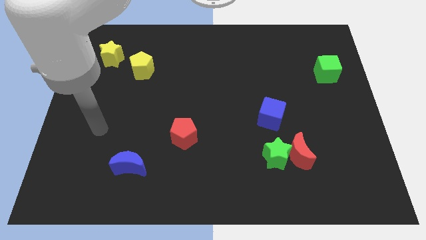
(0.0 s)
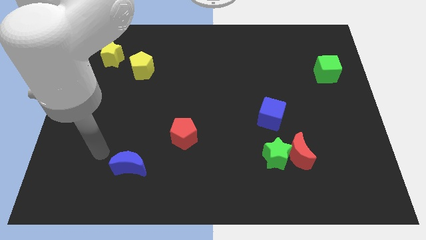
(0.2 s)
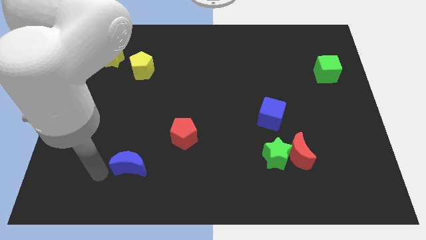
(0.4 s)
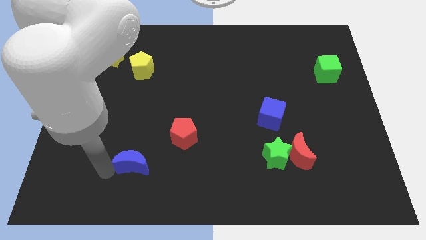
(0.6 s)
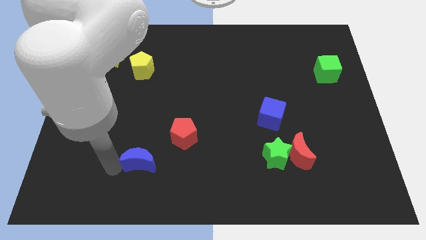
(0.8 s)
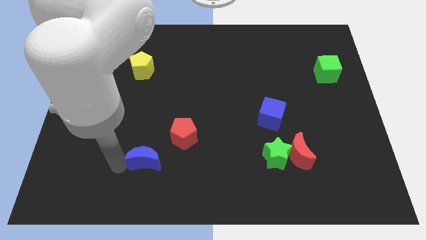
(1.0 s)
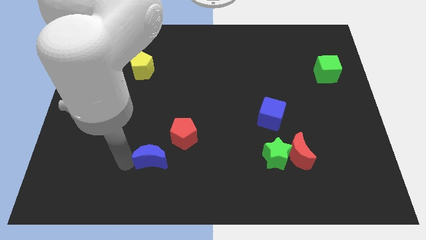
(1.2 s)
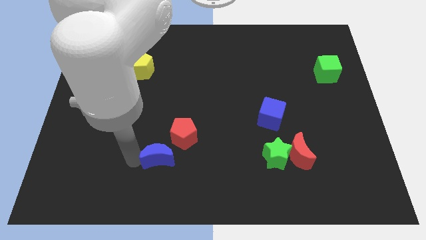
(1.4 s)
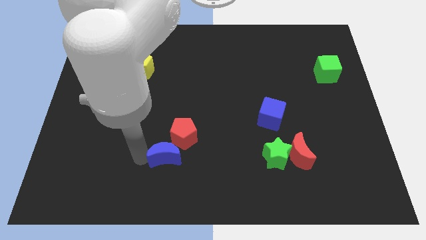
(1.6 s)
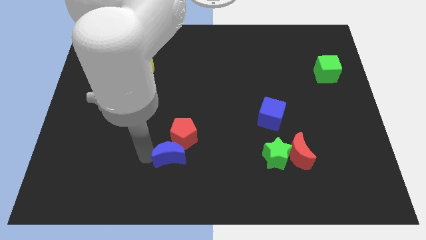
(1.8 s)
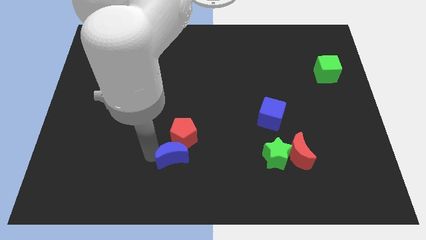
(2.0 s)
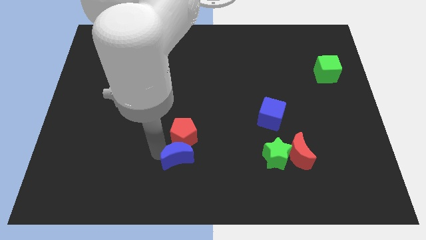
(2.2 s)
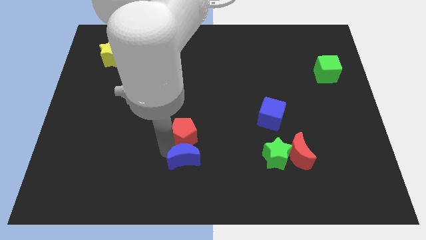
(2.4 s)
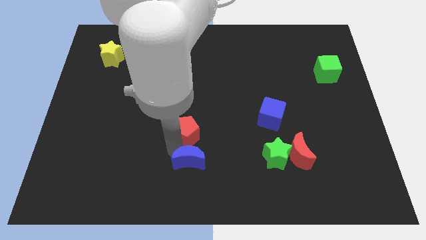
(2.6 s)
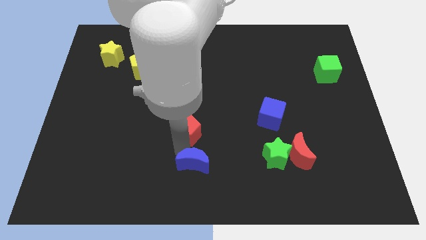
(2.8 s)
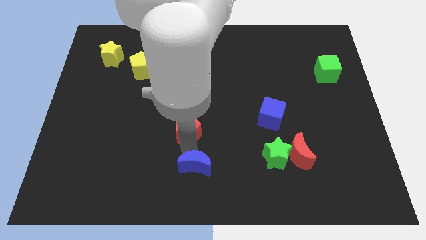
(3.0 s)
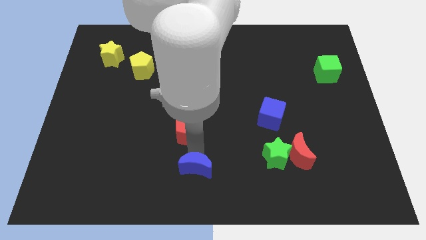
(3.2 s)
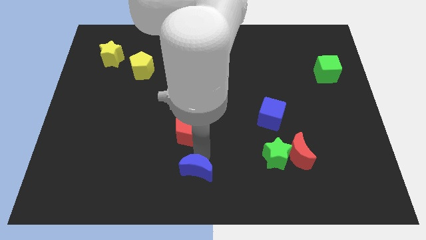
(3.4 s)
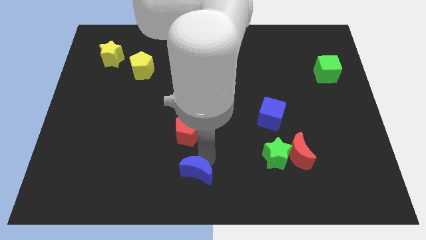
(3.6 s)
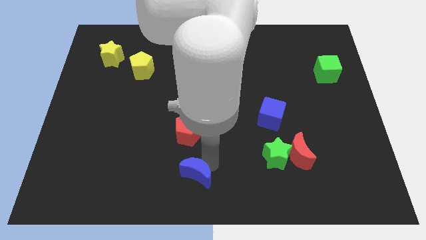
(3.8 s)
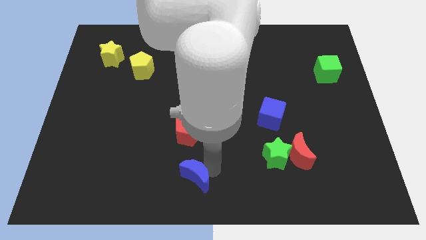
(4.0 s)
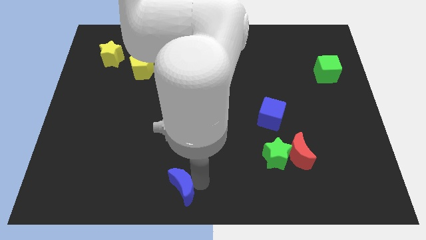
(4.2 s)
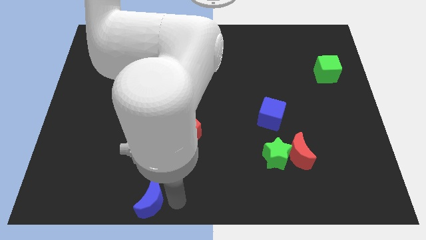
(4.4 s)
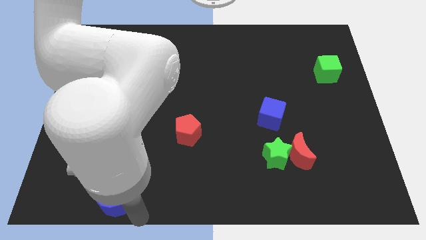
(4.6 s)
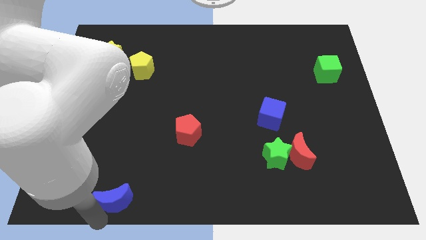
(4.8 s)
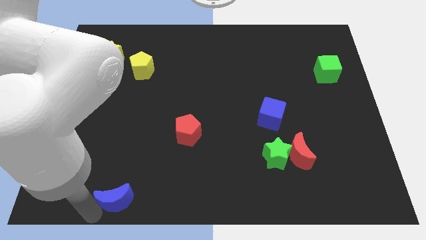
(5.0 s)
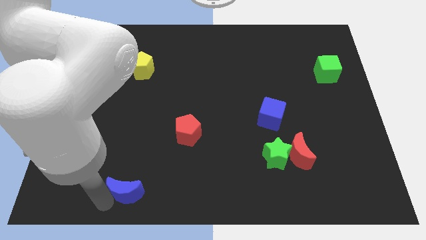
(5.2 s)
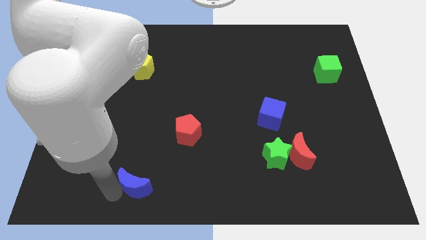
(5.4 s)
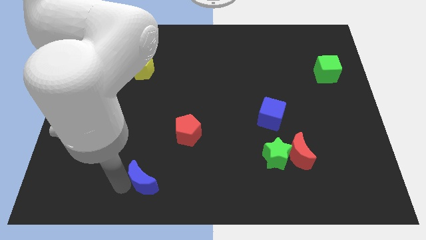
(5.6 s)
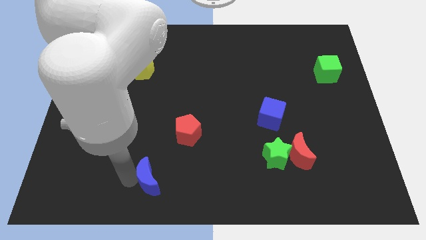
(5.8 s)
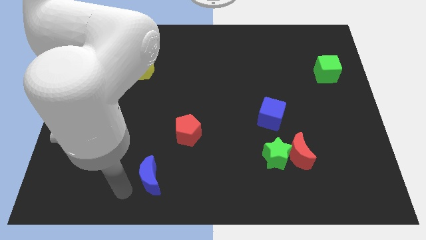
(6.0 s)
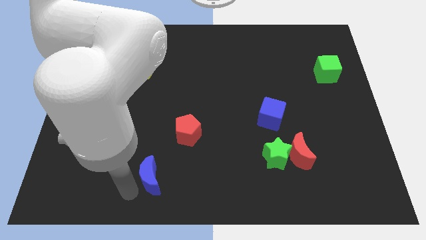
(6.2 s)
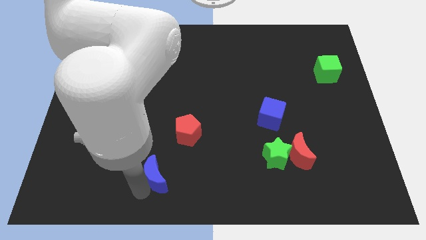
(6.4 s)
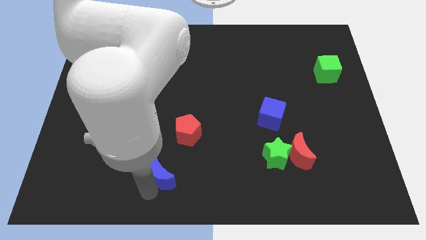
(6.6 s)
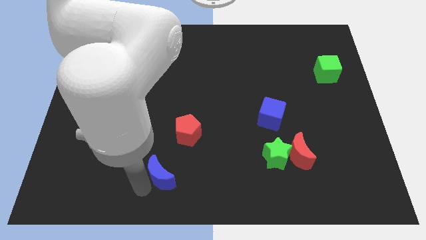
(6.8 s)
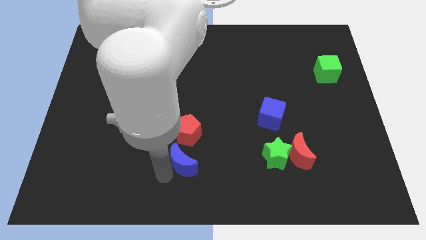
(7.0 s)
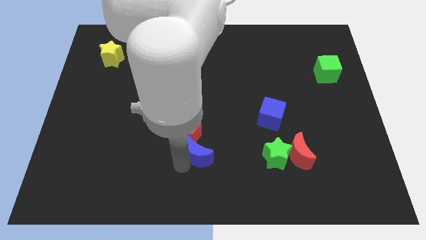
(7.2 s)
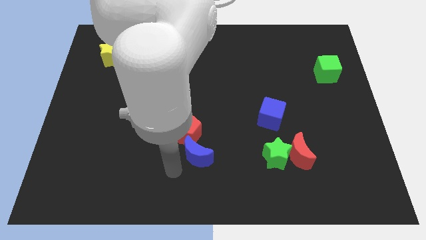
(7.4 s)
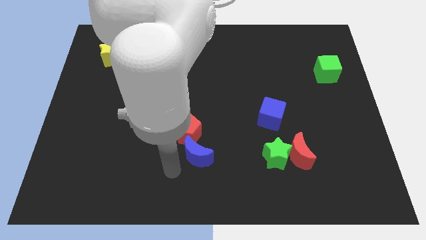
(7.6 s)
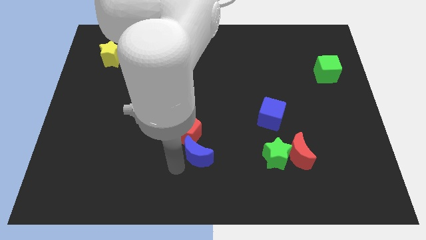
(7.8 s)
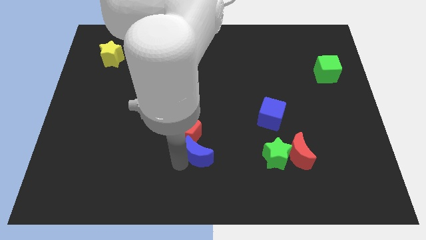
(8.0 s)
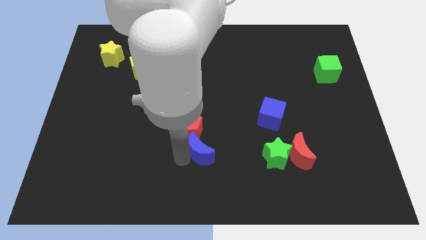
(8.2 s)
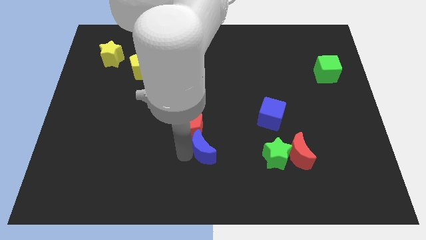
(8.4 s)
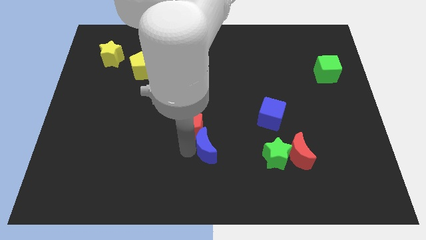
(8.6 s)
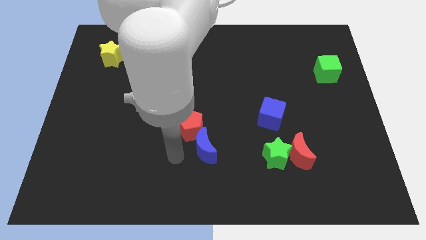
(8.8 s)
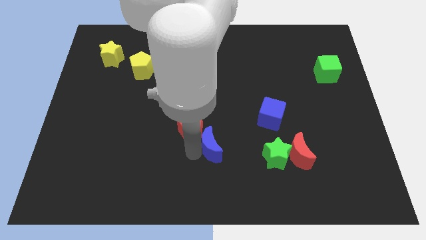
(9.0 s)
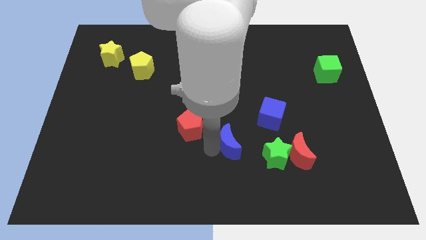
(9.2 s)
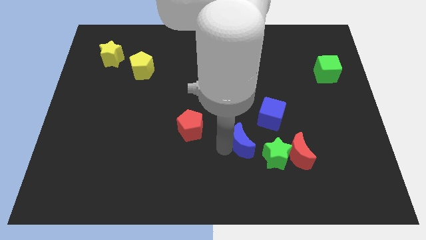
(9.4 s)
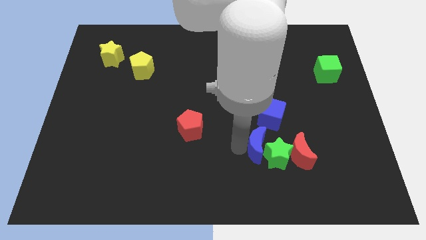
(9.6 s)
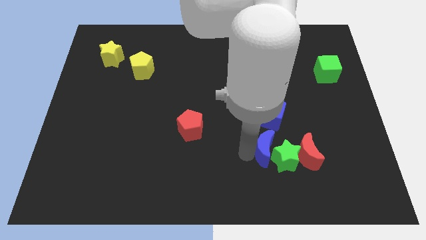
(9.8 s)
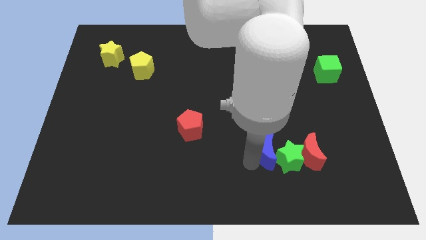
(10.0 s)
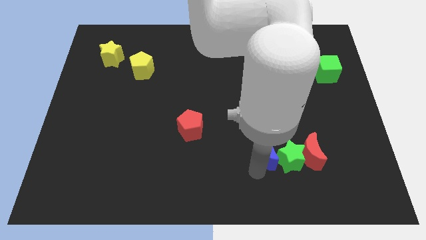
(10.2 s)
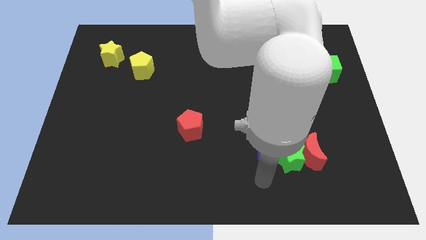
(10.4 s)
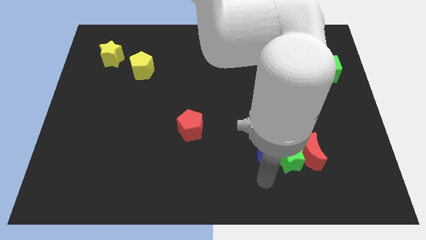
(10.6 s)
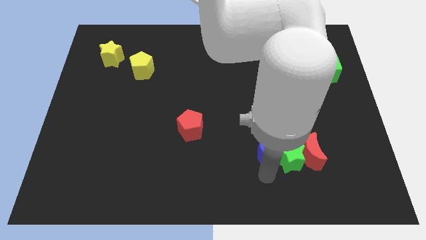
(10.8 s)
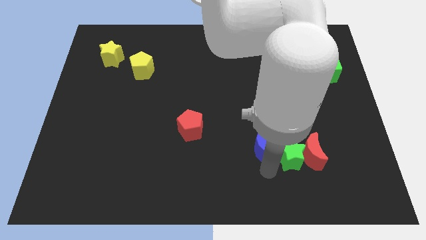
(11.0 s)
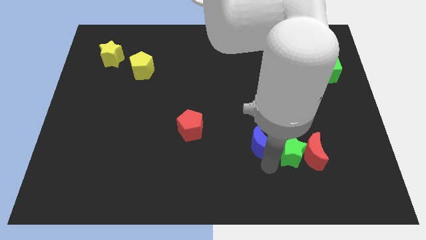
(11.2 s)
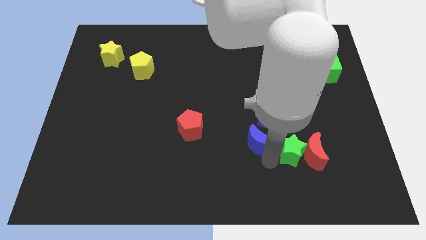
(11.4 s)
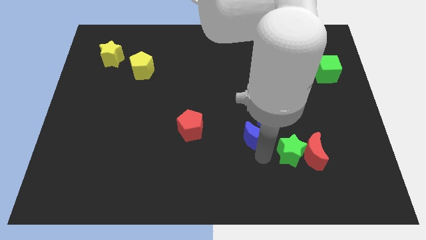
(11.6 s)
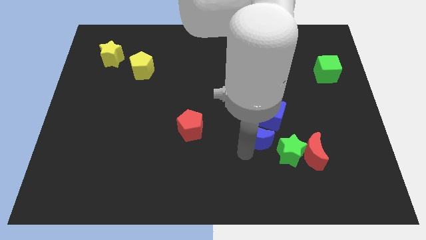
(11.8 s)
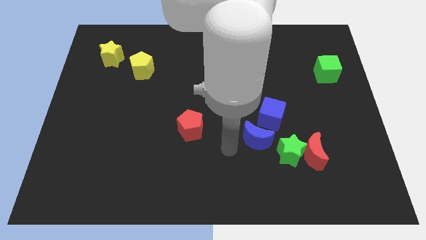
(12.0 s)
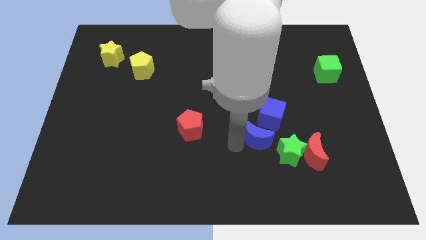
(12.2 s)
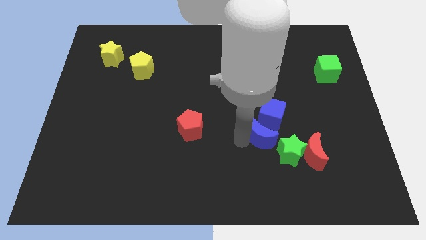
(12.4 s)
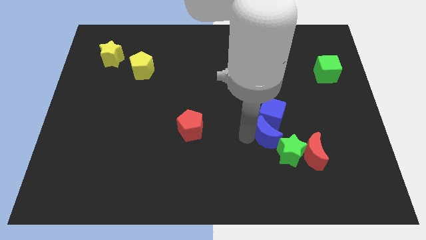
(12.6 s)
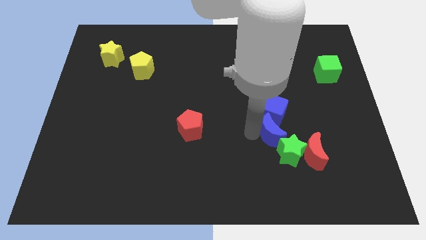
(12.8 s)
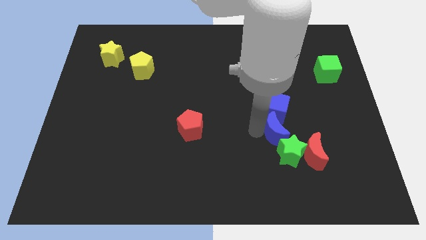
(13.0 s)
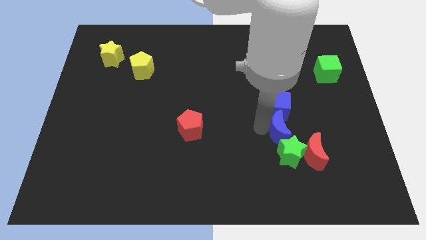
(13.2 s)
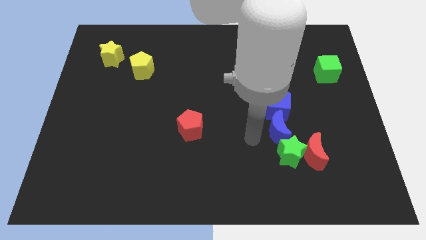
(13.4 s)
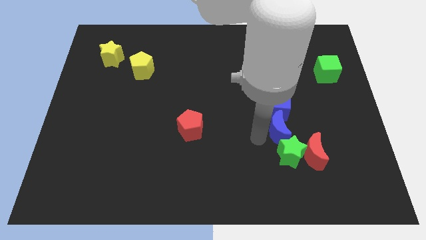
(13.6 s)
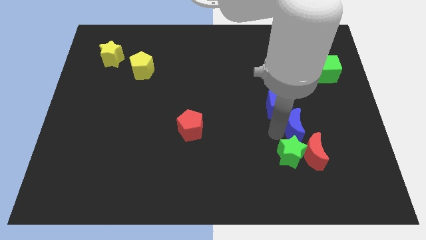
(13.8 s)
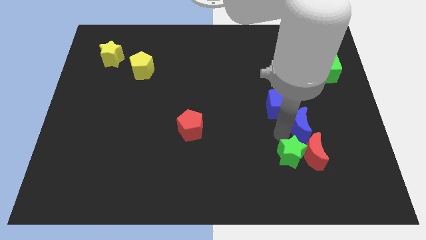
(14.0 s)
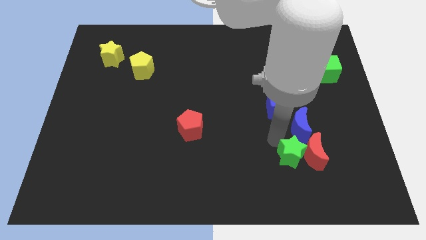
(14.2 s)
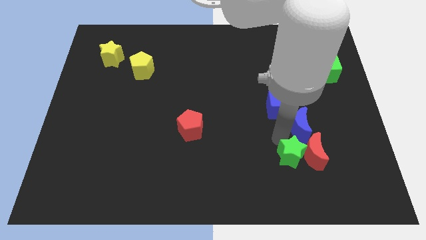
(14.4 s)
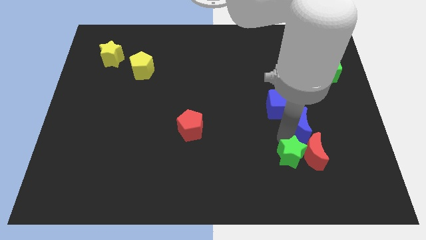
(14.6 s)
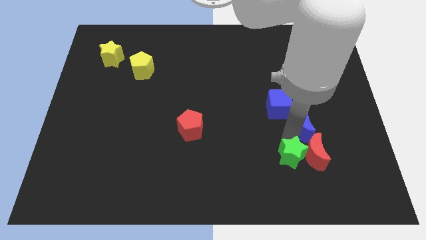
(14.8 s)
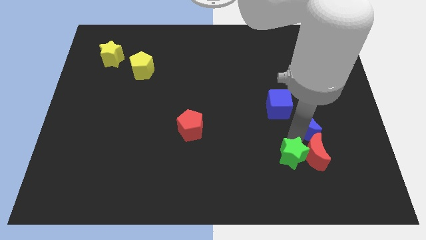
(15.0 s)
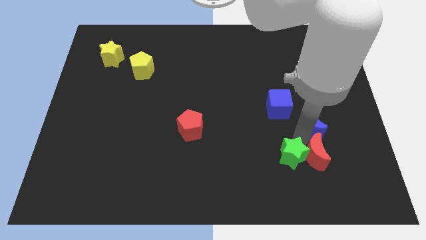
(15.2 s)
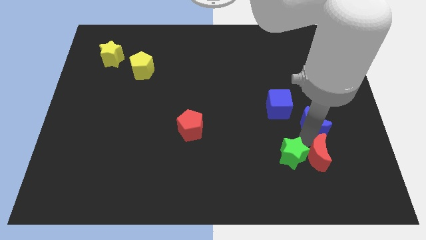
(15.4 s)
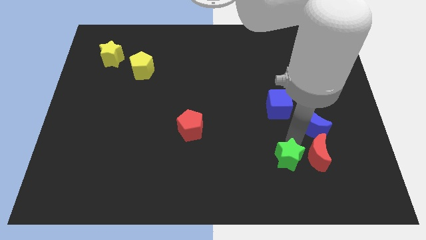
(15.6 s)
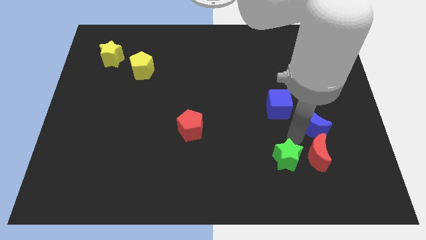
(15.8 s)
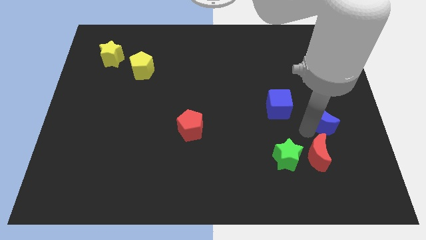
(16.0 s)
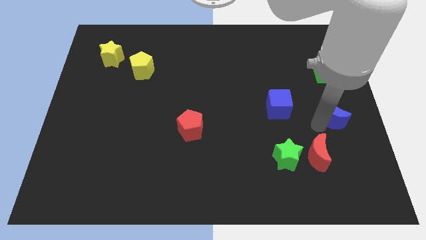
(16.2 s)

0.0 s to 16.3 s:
put the blue moon to the center right
